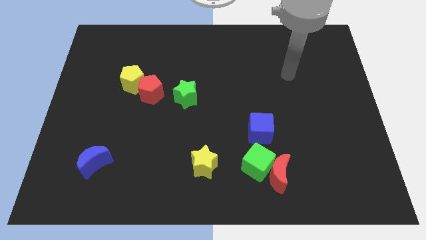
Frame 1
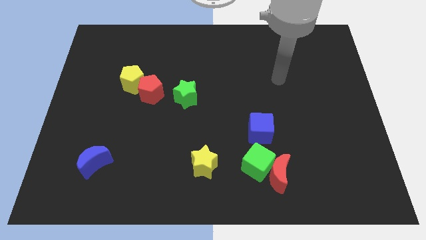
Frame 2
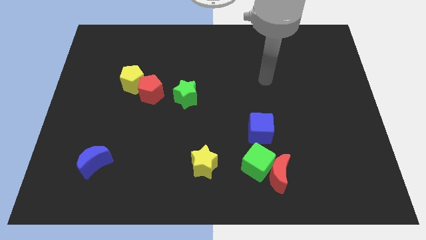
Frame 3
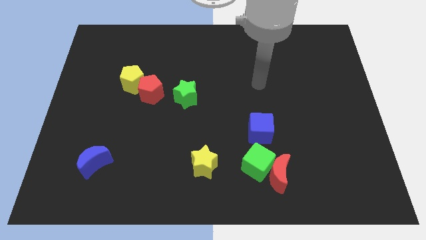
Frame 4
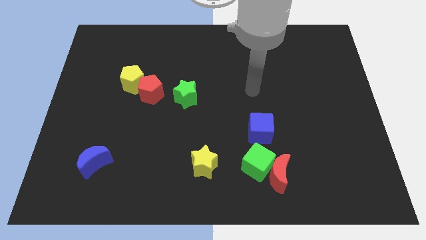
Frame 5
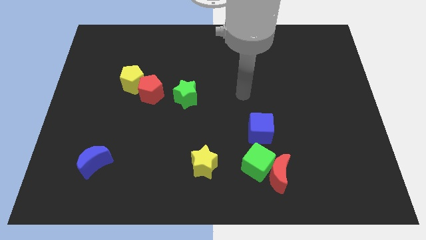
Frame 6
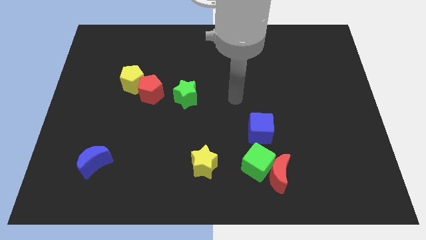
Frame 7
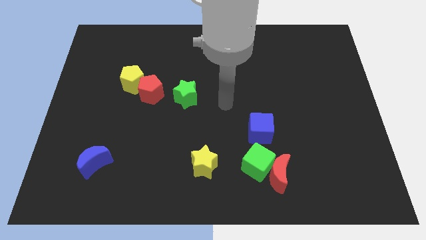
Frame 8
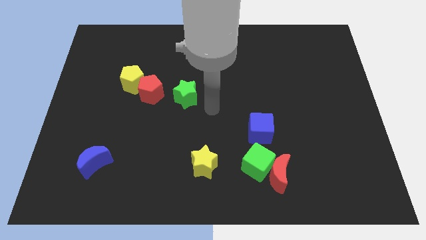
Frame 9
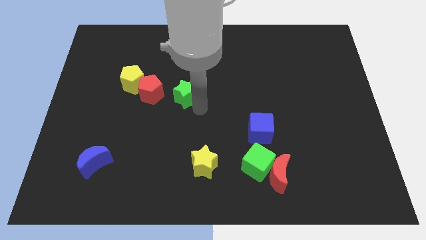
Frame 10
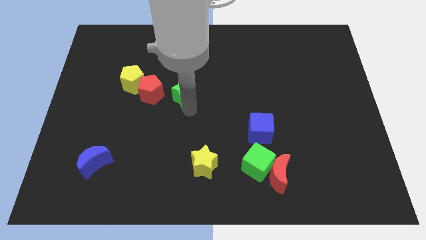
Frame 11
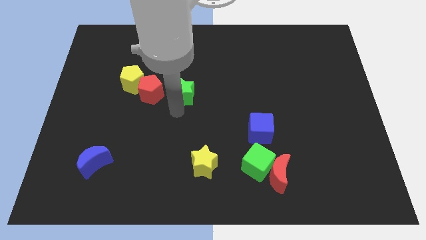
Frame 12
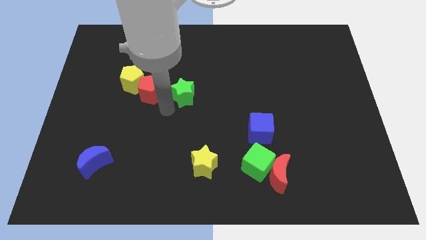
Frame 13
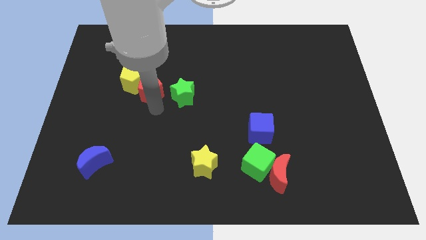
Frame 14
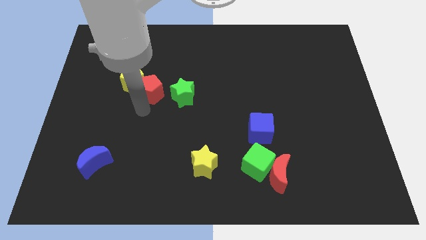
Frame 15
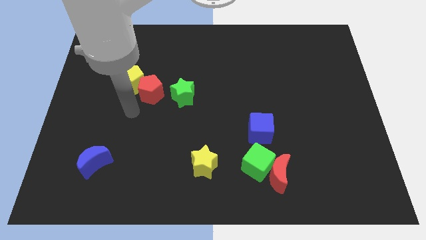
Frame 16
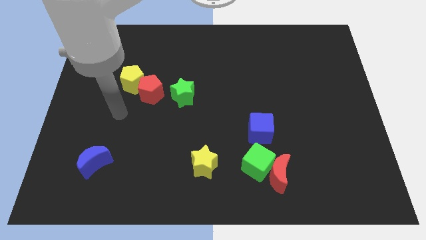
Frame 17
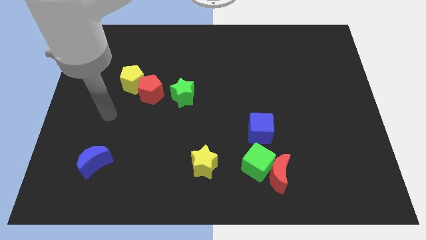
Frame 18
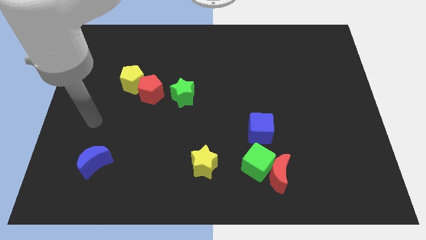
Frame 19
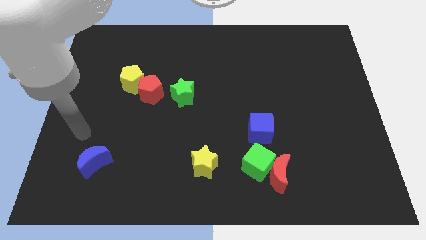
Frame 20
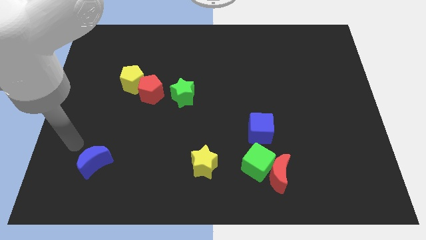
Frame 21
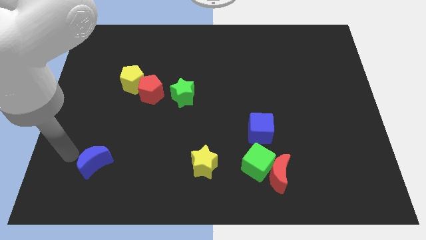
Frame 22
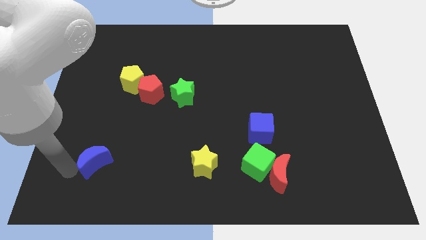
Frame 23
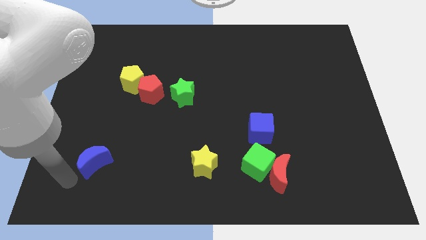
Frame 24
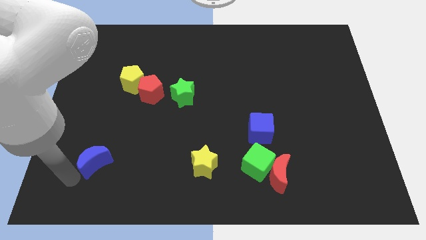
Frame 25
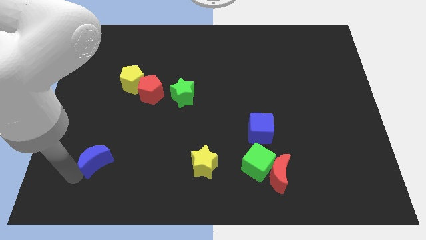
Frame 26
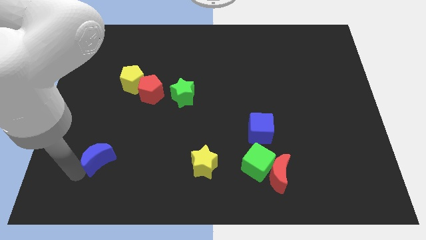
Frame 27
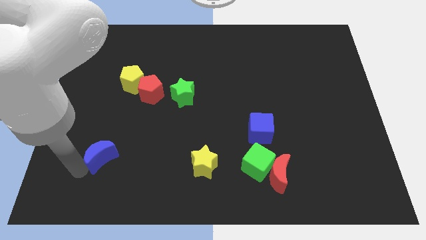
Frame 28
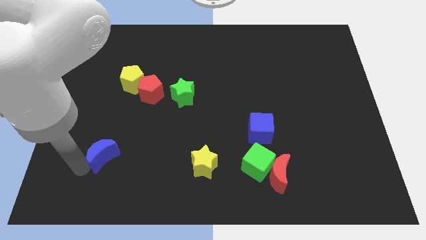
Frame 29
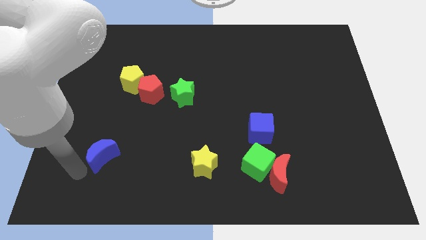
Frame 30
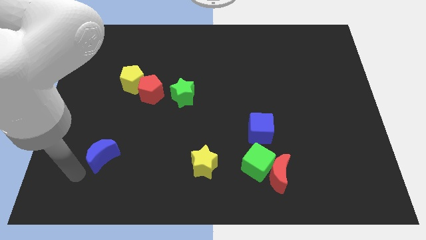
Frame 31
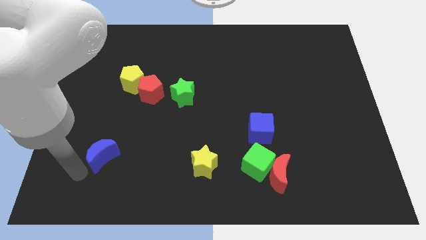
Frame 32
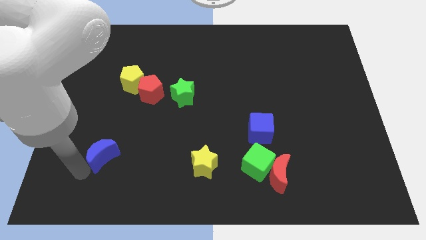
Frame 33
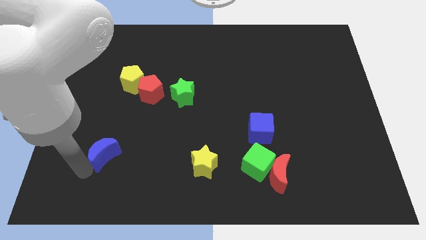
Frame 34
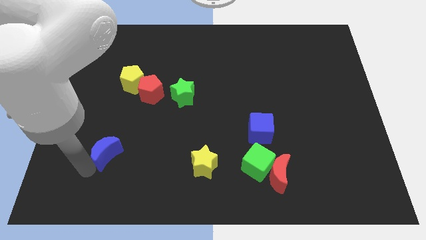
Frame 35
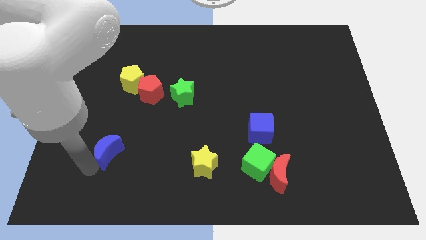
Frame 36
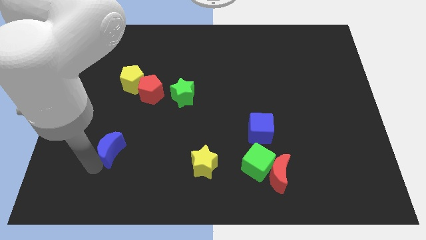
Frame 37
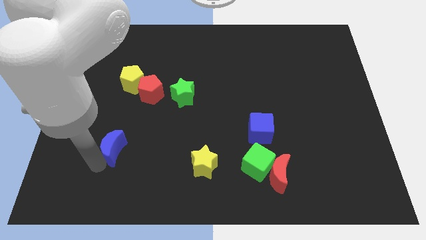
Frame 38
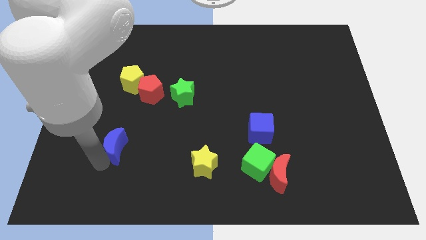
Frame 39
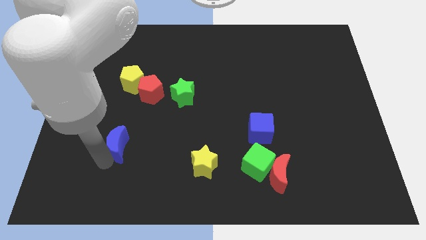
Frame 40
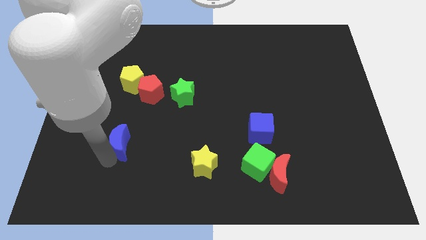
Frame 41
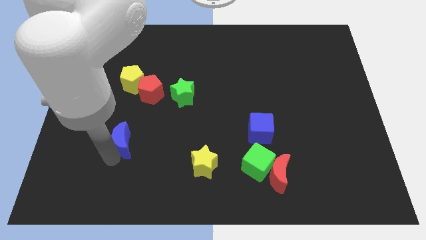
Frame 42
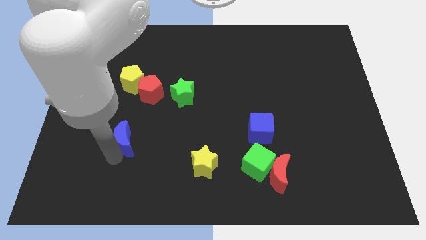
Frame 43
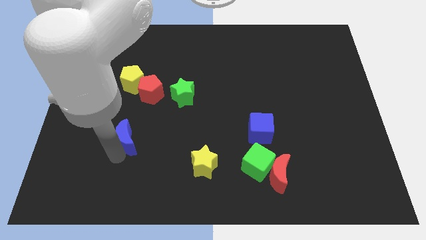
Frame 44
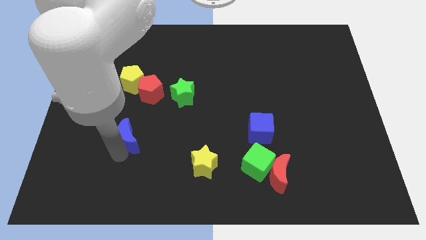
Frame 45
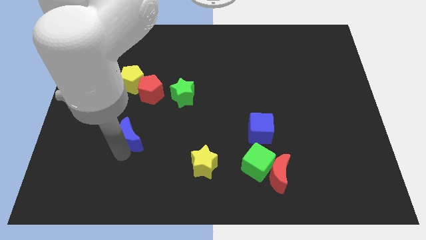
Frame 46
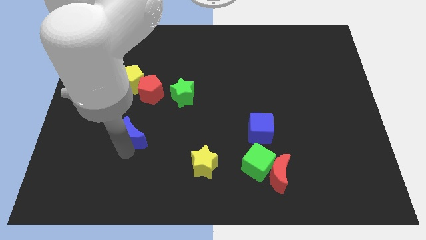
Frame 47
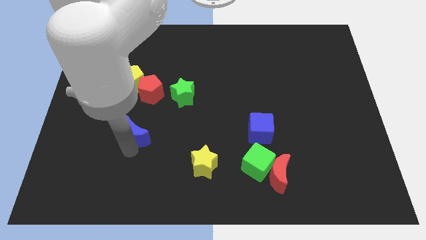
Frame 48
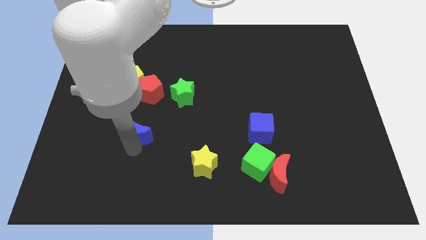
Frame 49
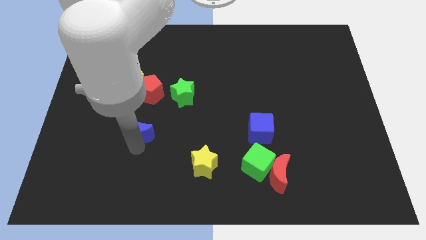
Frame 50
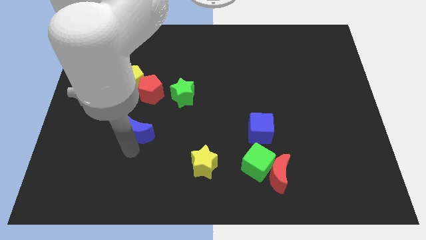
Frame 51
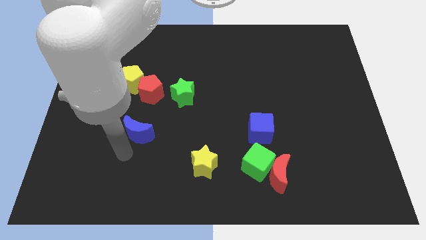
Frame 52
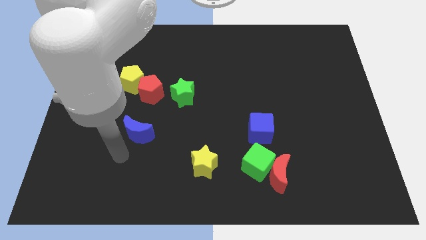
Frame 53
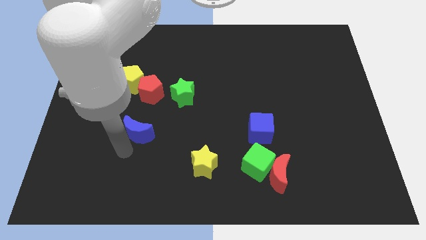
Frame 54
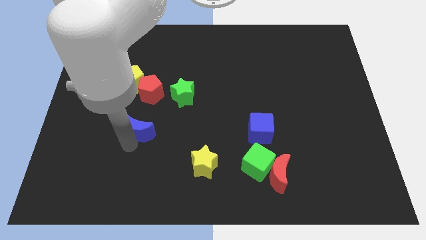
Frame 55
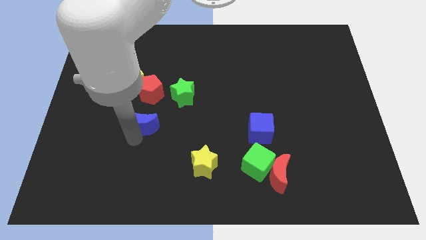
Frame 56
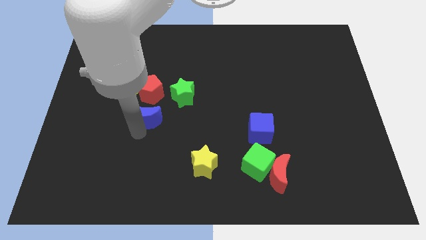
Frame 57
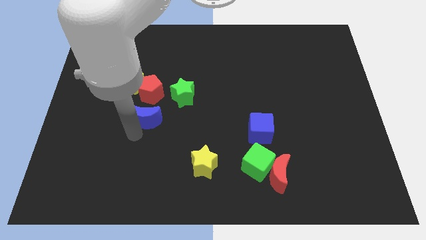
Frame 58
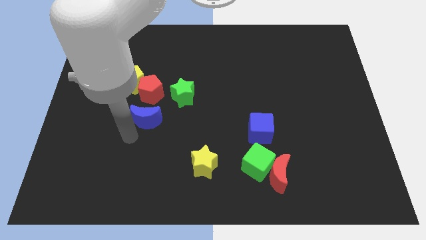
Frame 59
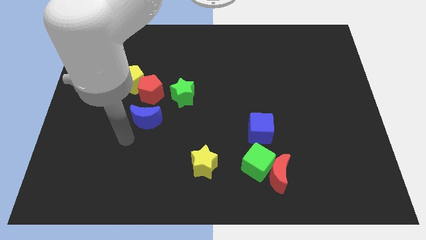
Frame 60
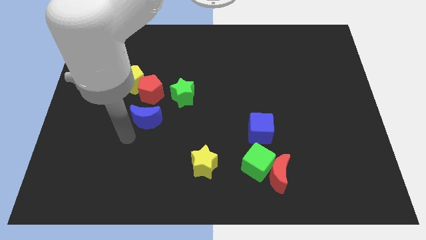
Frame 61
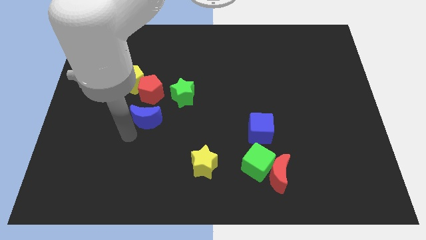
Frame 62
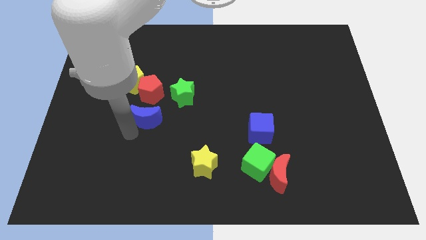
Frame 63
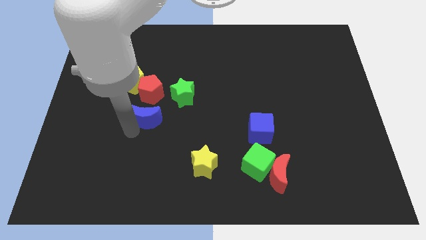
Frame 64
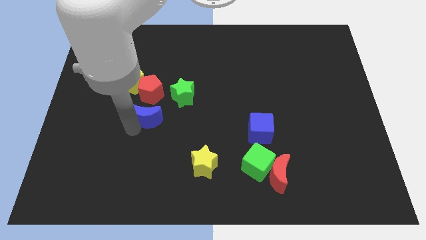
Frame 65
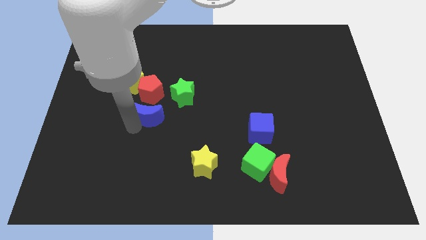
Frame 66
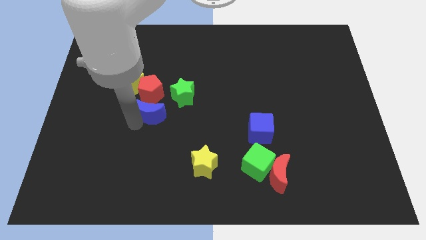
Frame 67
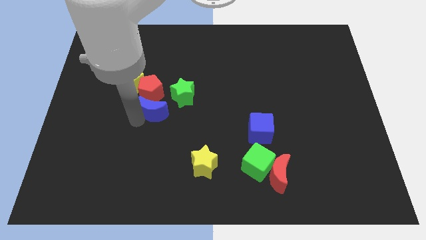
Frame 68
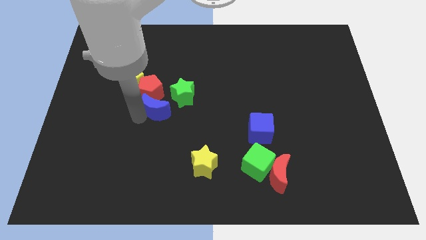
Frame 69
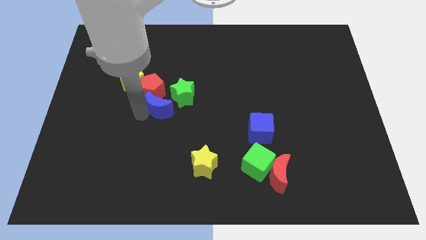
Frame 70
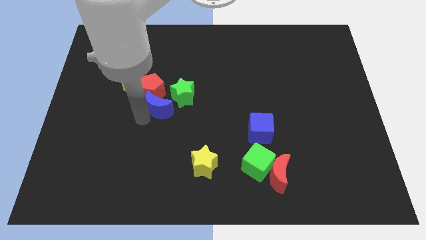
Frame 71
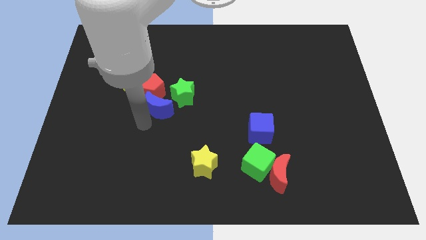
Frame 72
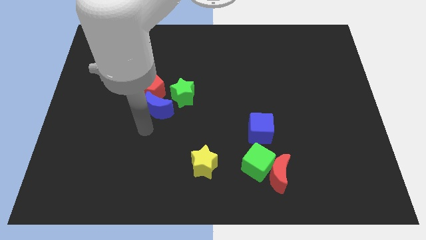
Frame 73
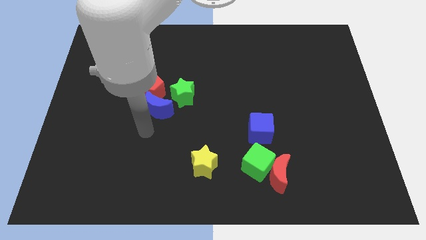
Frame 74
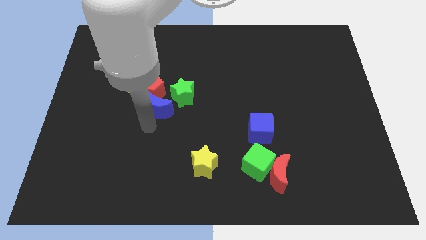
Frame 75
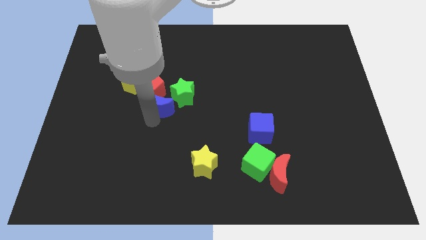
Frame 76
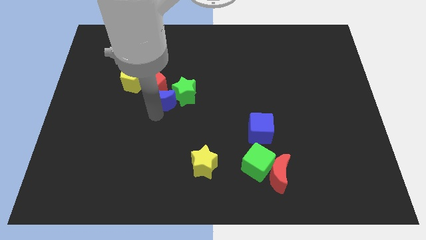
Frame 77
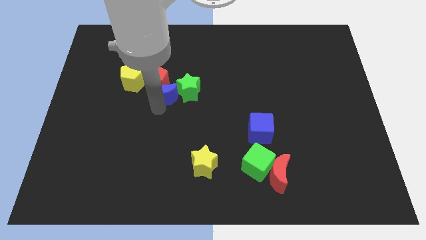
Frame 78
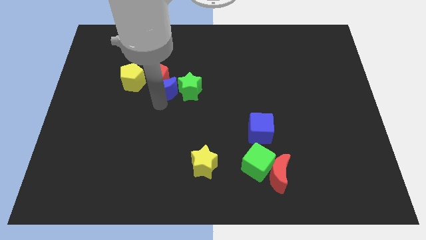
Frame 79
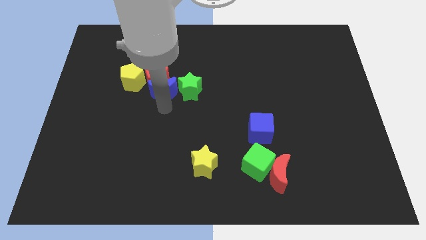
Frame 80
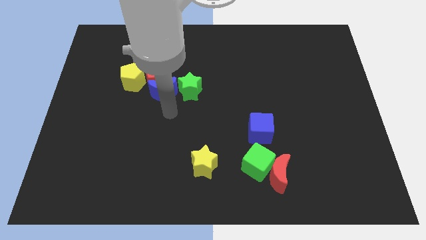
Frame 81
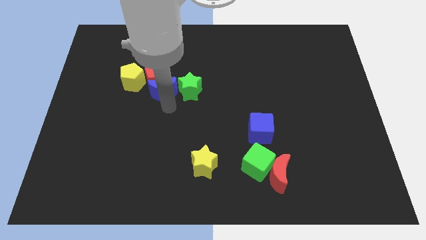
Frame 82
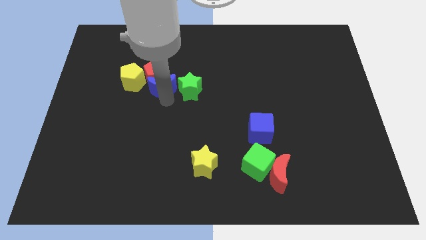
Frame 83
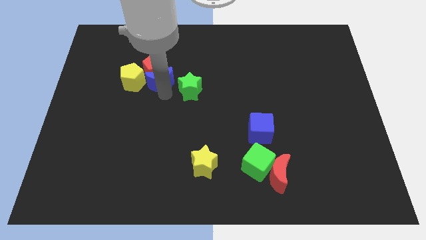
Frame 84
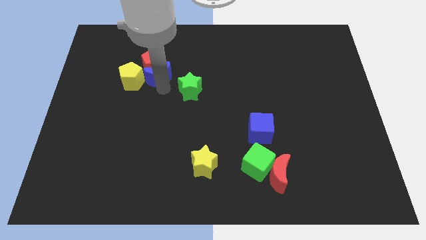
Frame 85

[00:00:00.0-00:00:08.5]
put the blue moon to the top right of the yellow pentagon
